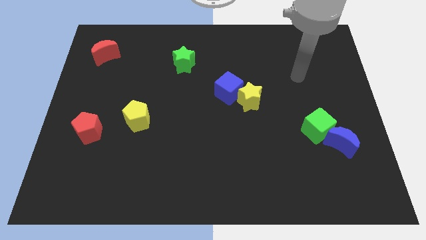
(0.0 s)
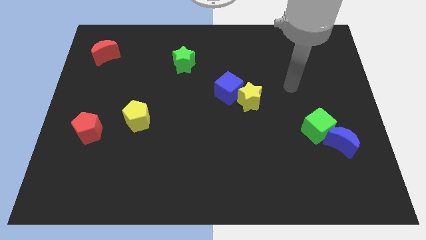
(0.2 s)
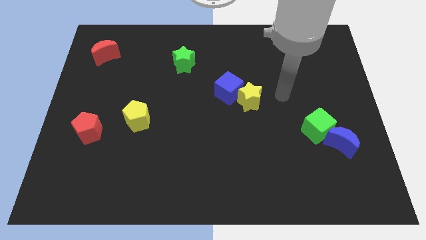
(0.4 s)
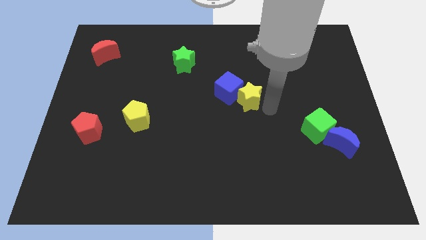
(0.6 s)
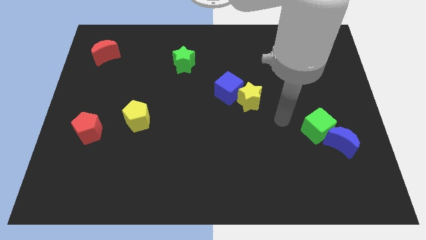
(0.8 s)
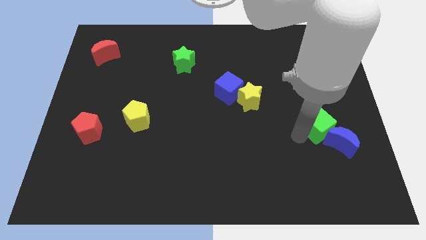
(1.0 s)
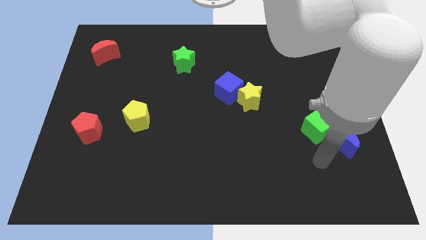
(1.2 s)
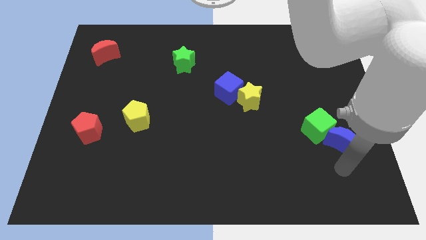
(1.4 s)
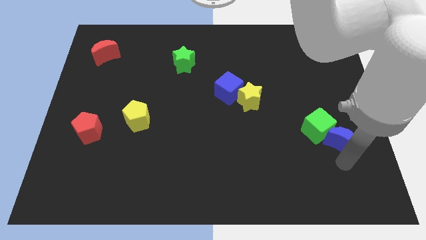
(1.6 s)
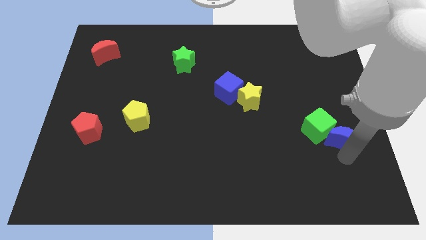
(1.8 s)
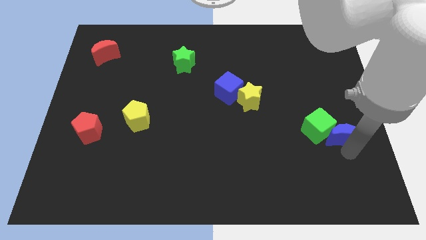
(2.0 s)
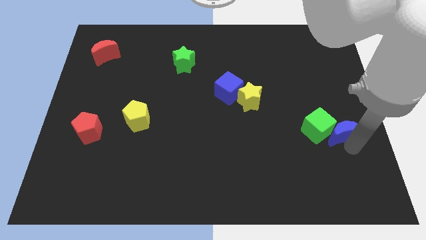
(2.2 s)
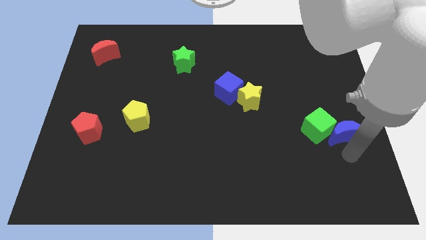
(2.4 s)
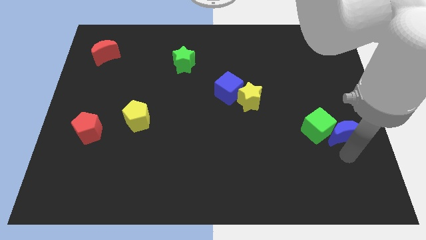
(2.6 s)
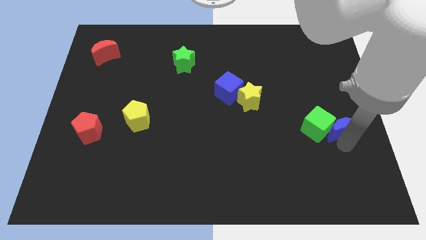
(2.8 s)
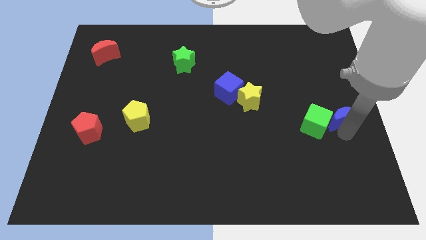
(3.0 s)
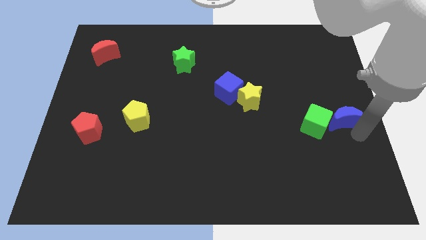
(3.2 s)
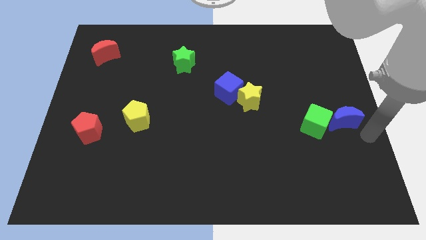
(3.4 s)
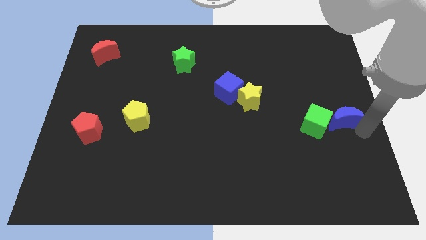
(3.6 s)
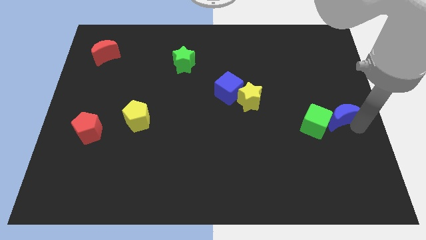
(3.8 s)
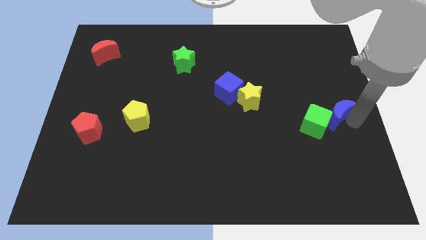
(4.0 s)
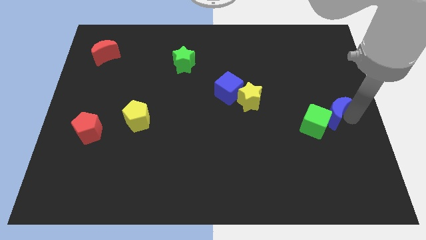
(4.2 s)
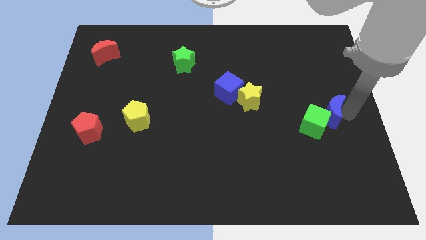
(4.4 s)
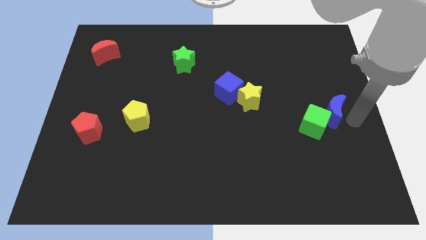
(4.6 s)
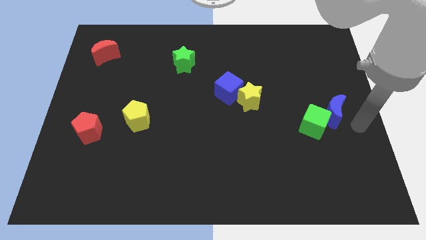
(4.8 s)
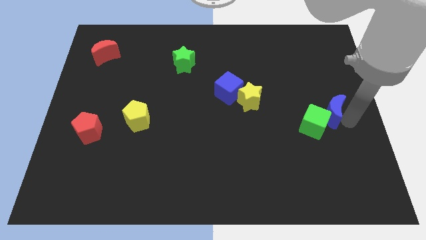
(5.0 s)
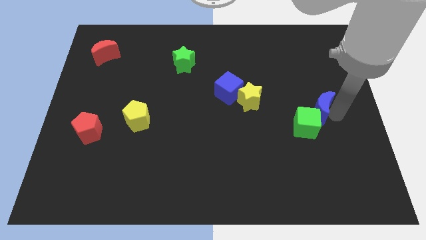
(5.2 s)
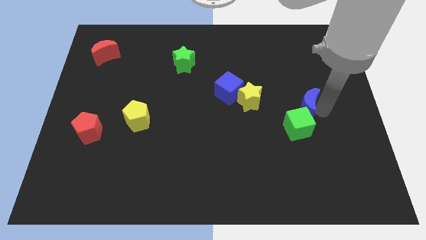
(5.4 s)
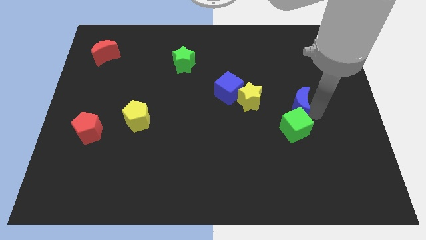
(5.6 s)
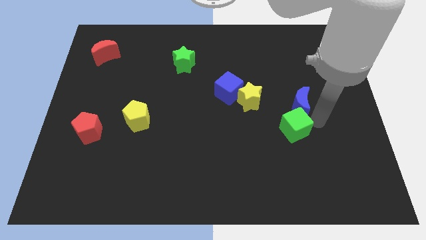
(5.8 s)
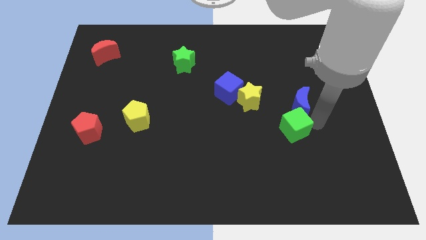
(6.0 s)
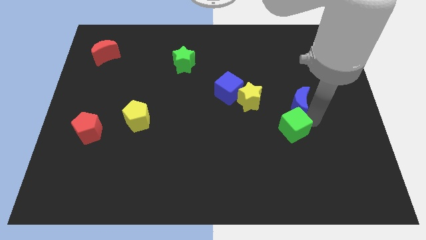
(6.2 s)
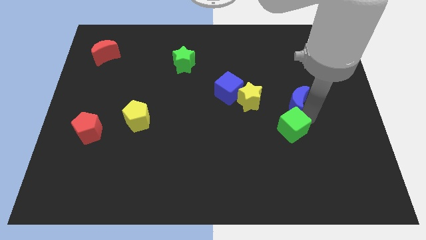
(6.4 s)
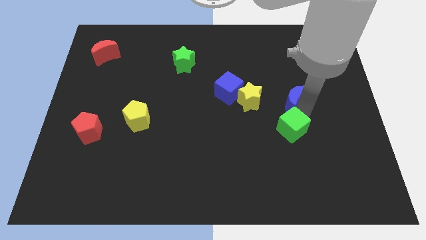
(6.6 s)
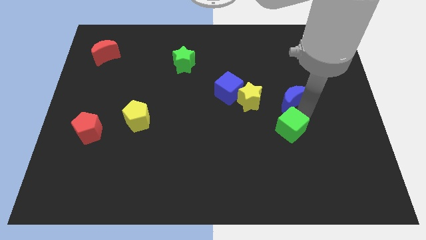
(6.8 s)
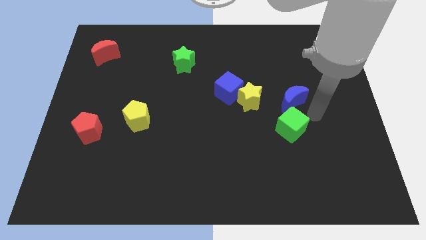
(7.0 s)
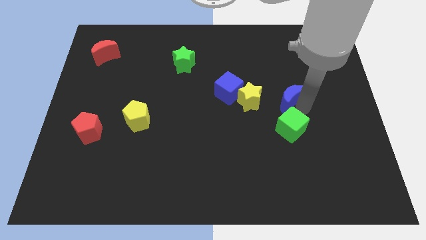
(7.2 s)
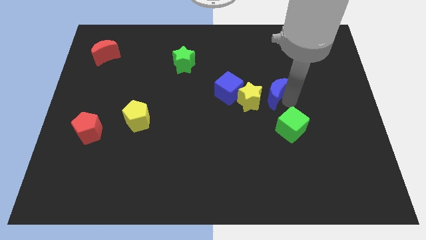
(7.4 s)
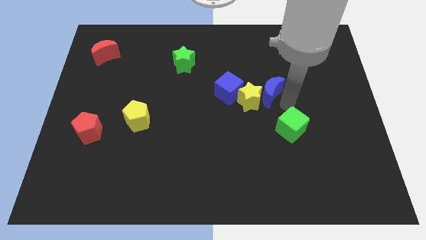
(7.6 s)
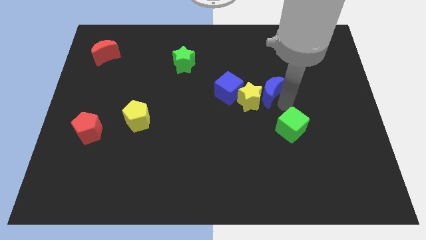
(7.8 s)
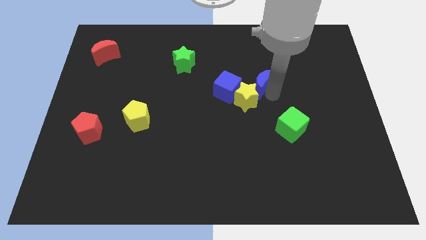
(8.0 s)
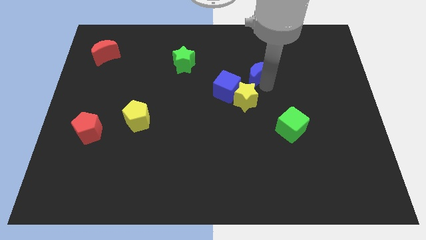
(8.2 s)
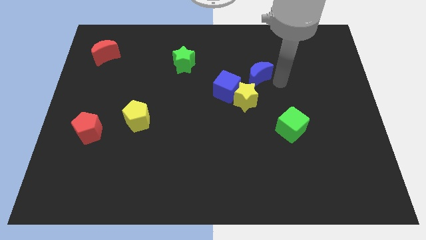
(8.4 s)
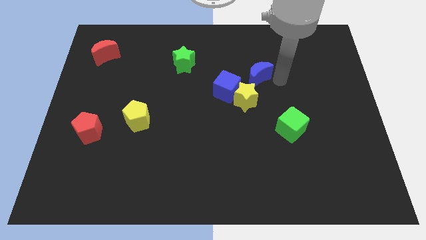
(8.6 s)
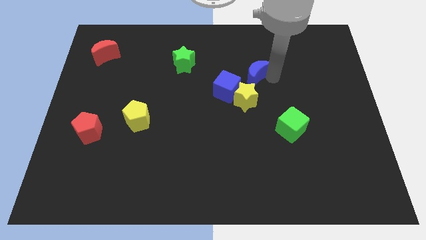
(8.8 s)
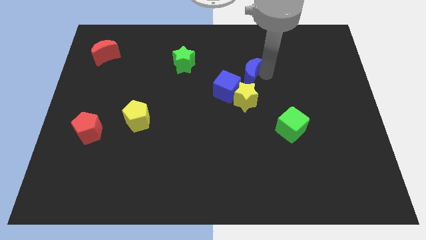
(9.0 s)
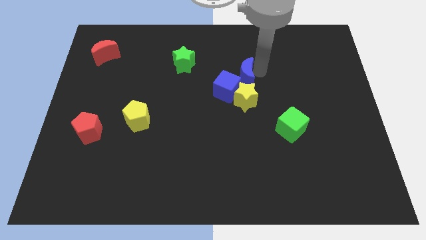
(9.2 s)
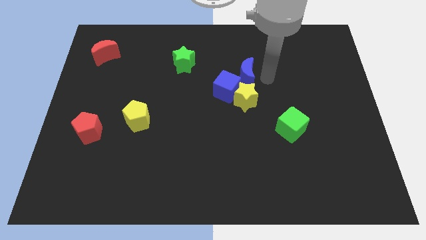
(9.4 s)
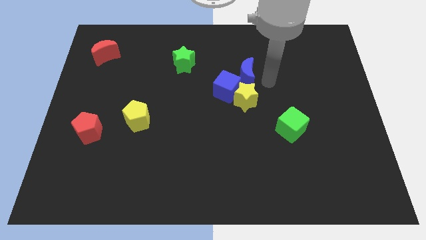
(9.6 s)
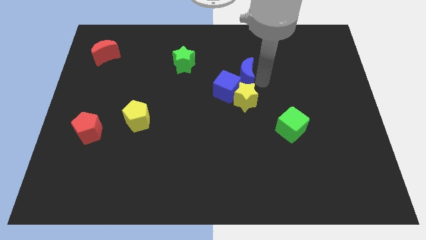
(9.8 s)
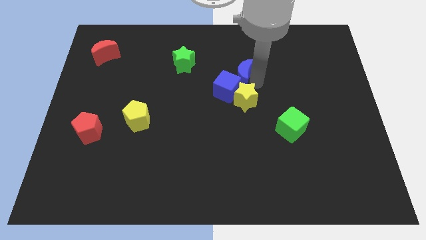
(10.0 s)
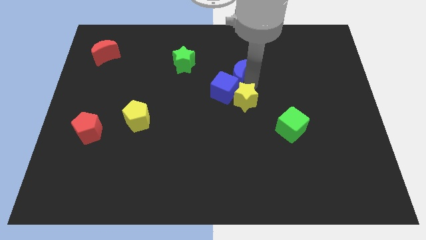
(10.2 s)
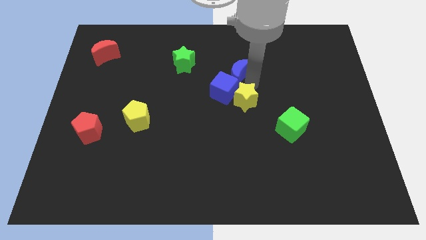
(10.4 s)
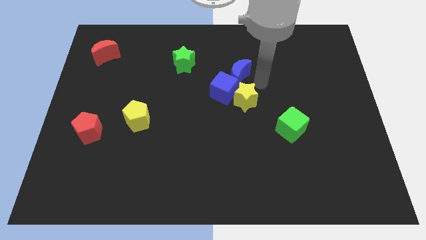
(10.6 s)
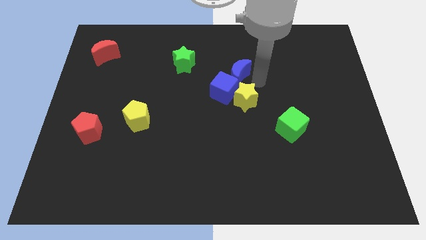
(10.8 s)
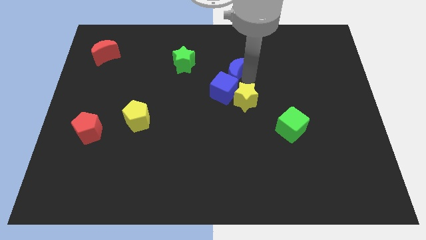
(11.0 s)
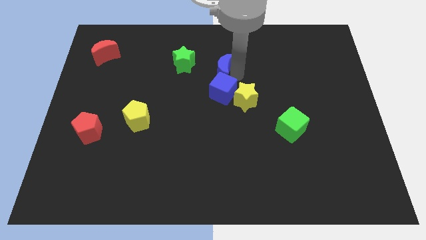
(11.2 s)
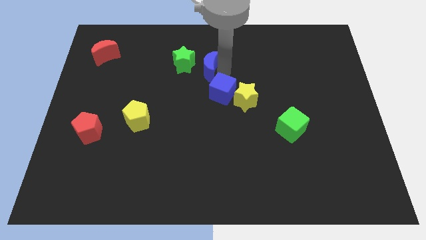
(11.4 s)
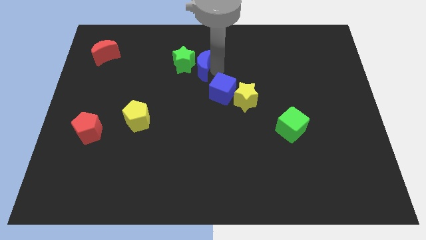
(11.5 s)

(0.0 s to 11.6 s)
push the blue moon next to the green star
